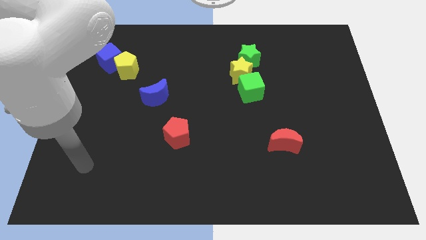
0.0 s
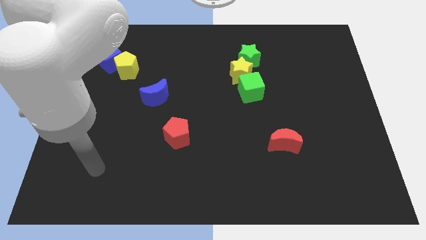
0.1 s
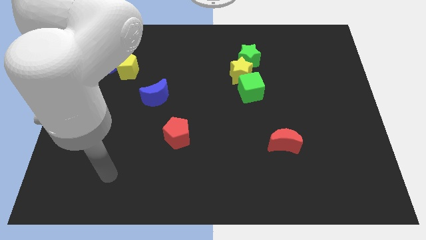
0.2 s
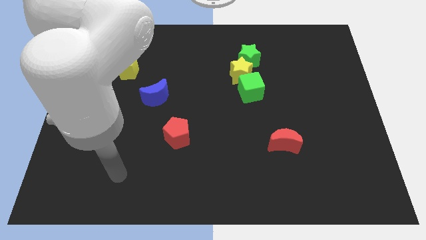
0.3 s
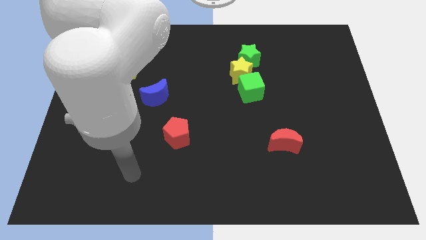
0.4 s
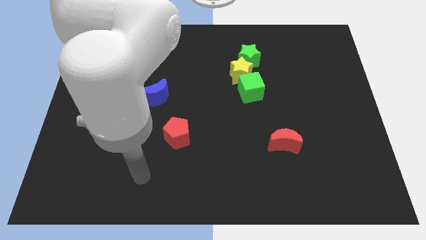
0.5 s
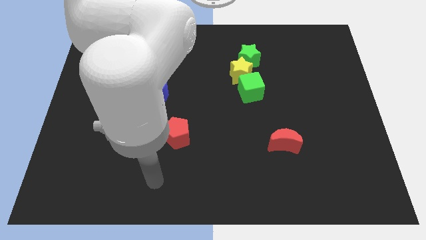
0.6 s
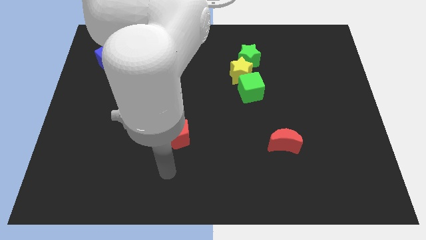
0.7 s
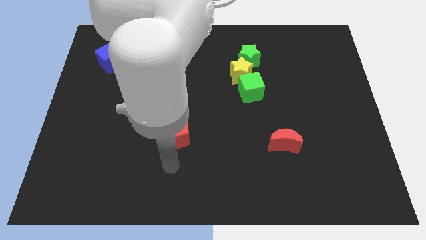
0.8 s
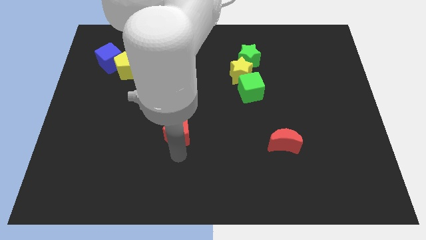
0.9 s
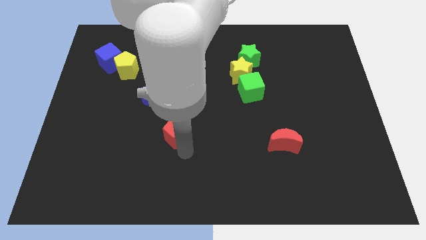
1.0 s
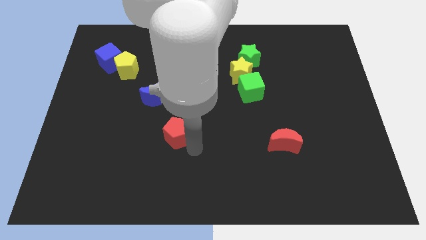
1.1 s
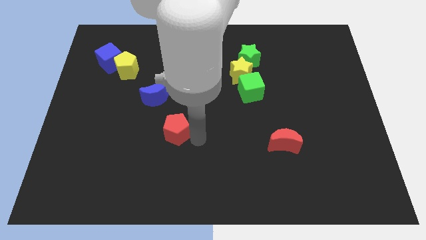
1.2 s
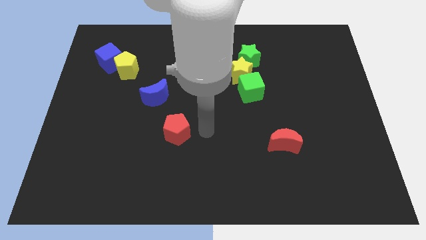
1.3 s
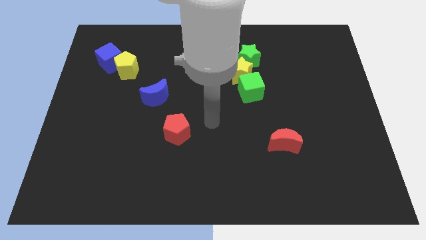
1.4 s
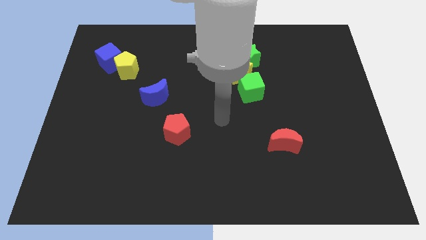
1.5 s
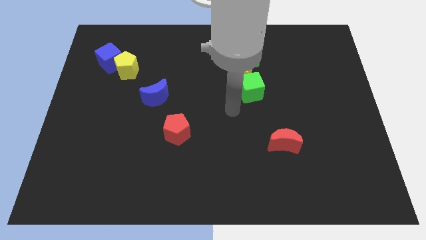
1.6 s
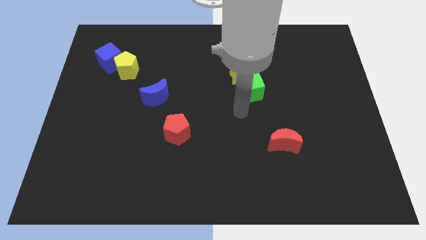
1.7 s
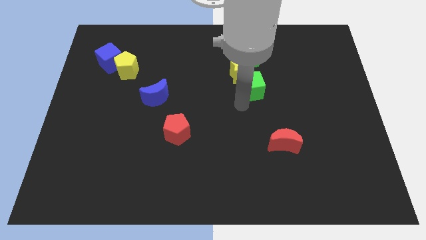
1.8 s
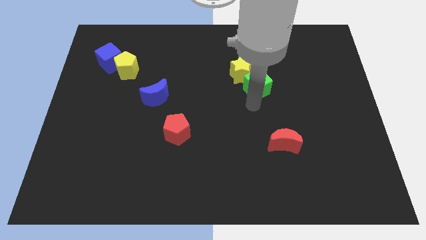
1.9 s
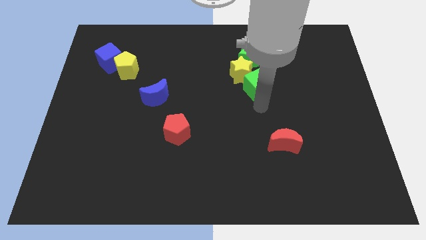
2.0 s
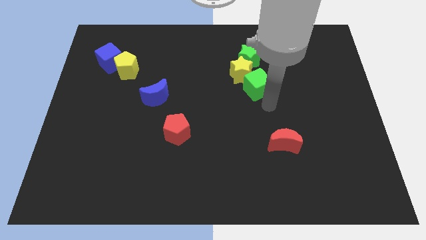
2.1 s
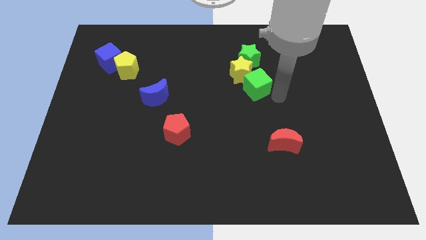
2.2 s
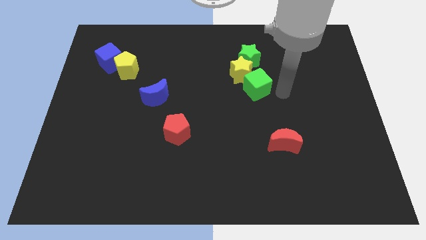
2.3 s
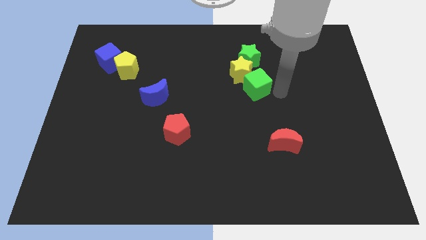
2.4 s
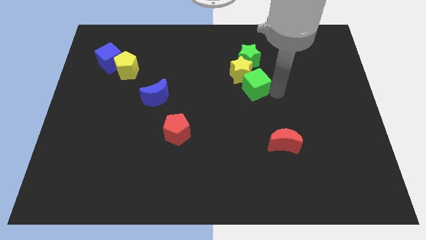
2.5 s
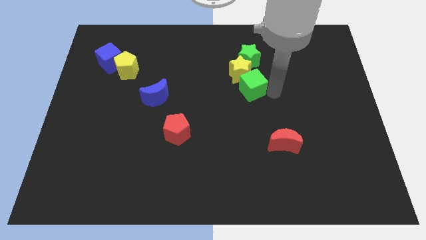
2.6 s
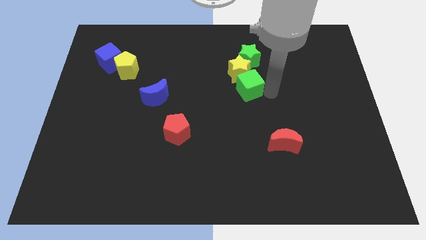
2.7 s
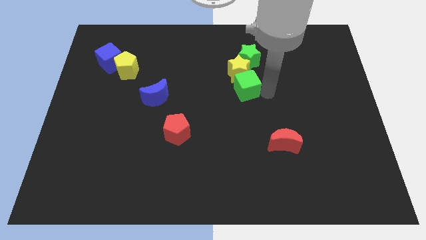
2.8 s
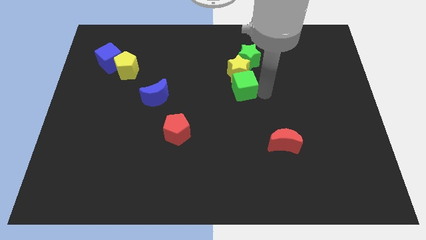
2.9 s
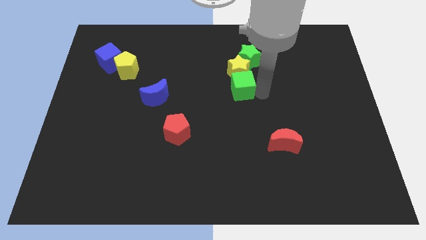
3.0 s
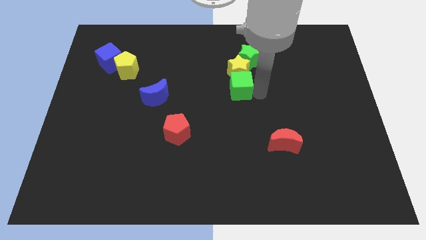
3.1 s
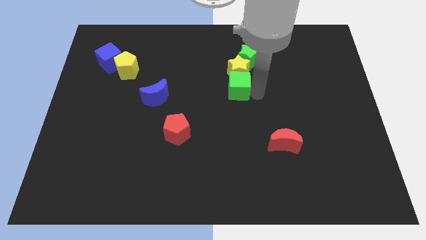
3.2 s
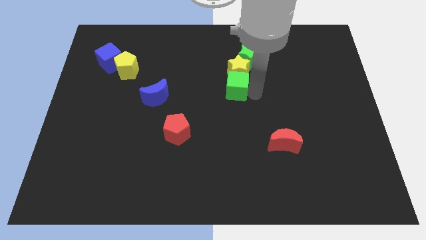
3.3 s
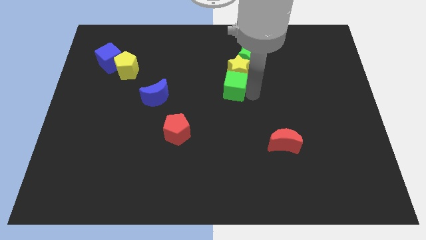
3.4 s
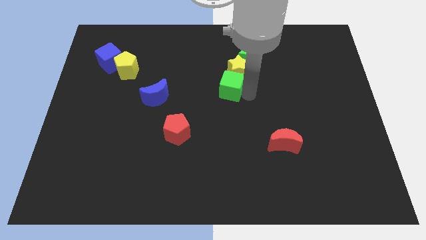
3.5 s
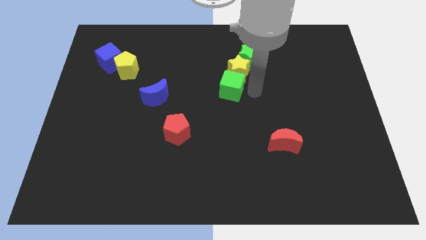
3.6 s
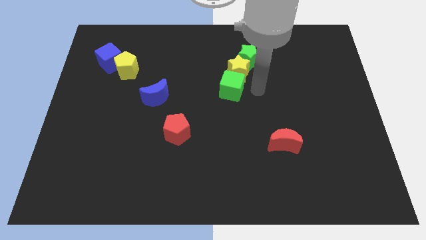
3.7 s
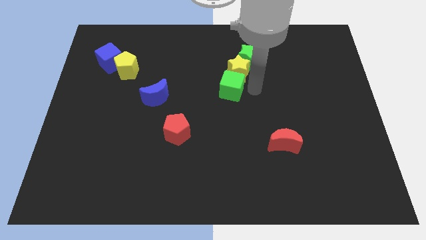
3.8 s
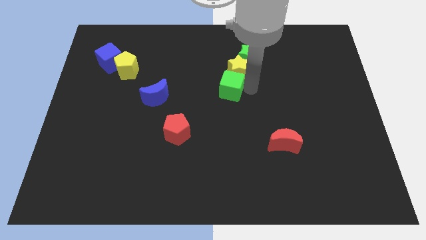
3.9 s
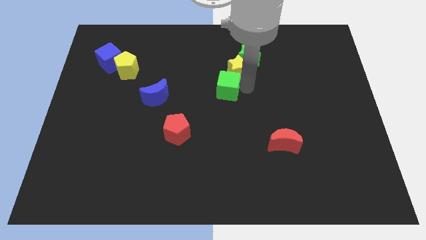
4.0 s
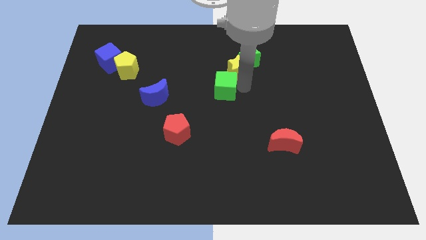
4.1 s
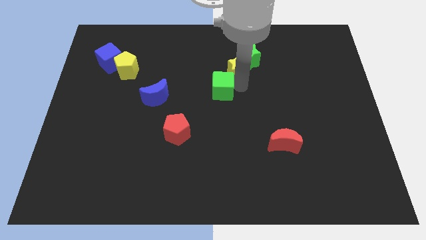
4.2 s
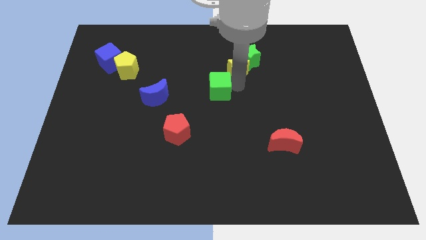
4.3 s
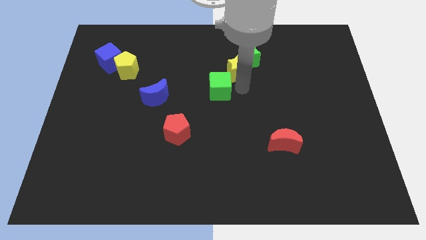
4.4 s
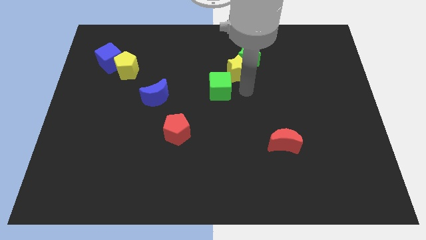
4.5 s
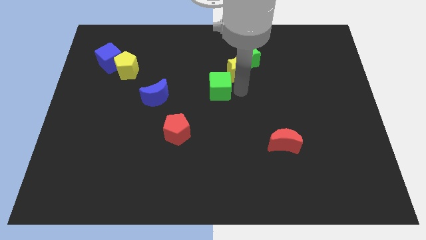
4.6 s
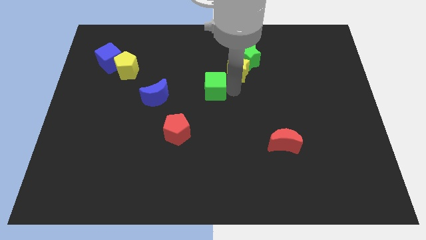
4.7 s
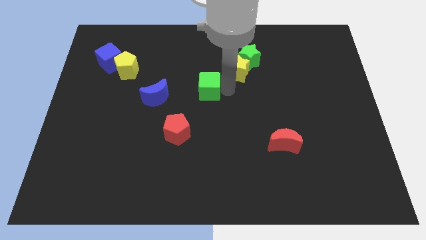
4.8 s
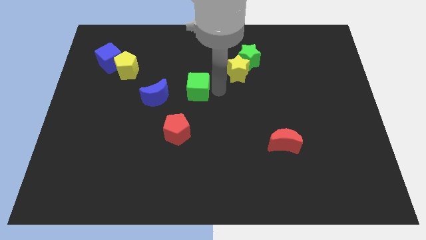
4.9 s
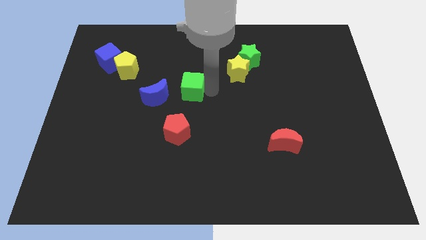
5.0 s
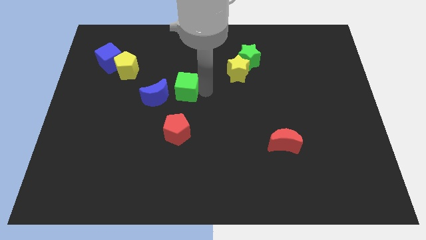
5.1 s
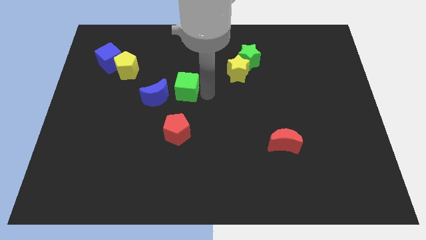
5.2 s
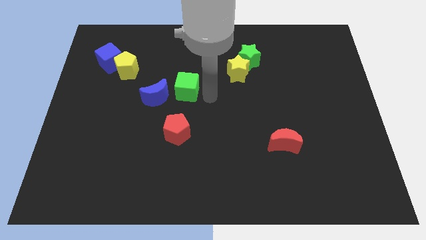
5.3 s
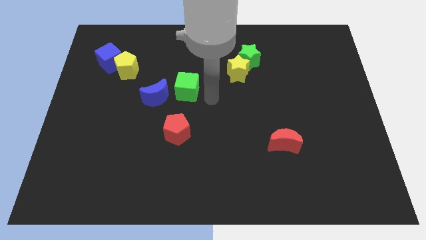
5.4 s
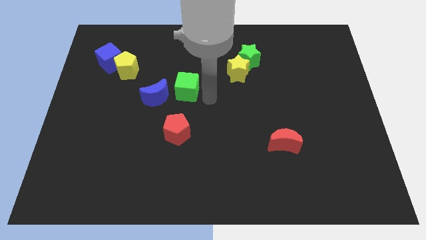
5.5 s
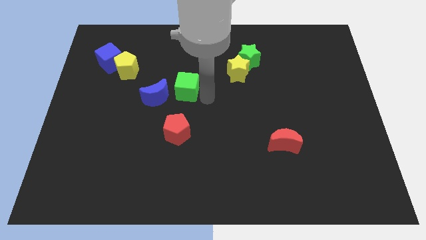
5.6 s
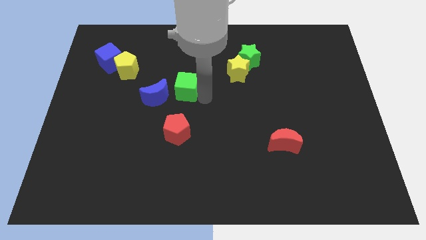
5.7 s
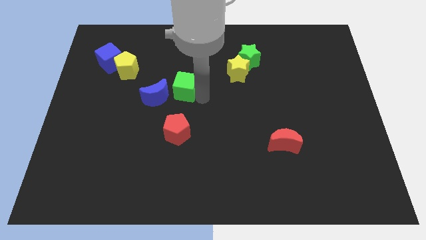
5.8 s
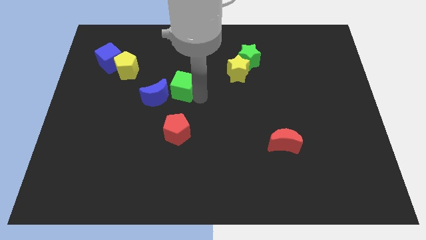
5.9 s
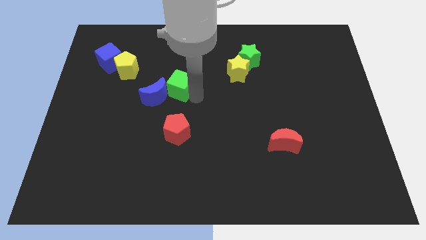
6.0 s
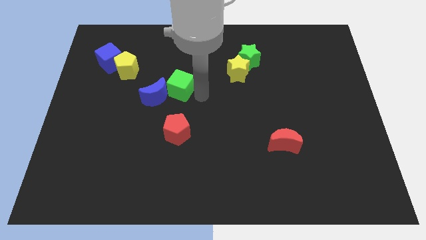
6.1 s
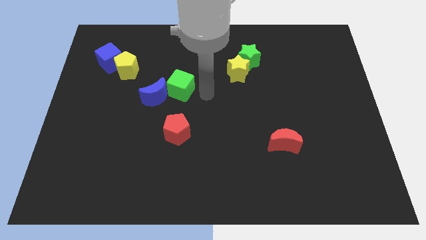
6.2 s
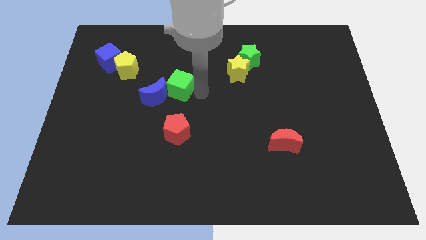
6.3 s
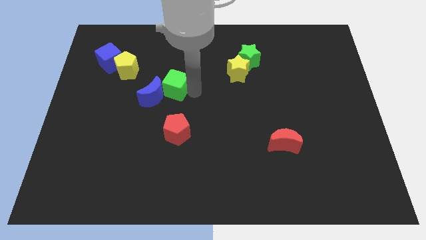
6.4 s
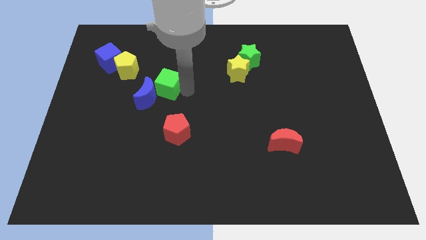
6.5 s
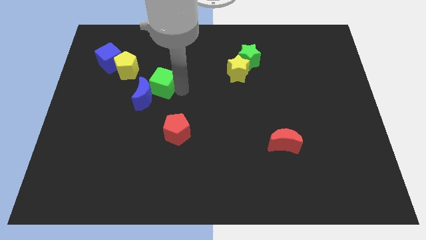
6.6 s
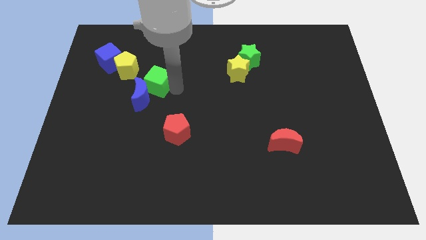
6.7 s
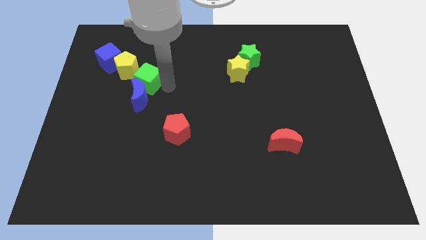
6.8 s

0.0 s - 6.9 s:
move the green cube to the top left of the blue moon

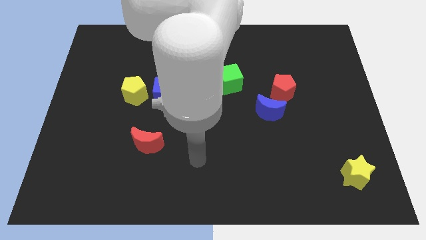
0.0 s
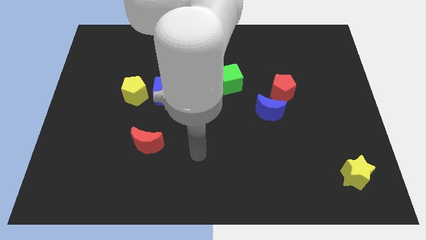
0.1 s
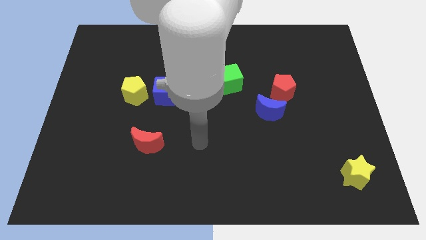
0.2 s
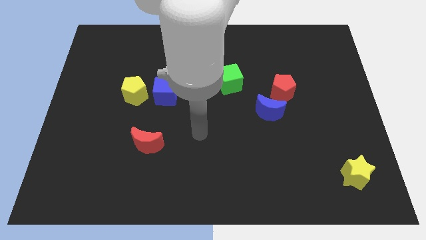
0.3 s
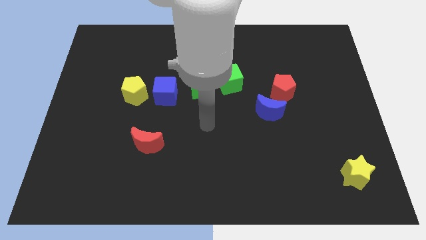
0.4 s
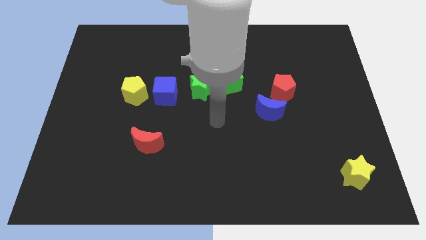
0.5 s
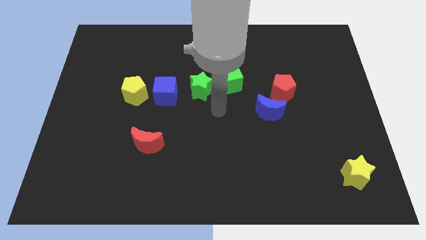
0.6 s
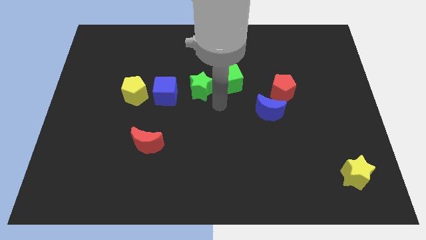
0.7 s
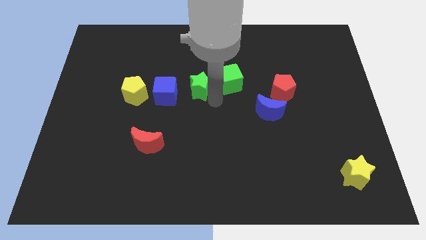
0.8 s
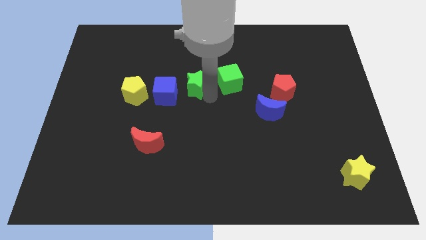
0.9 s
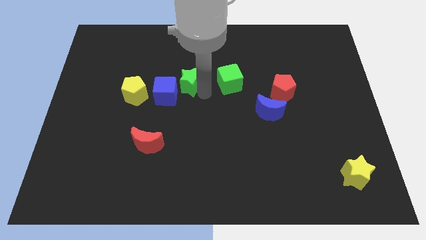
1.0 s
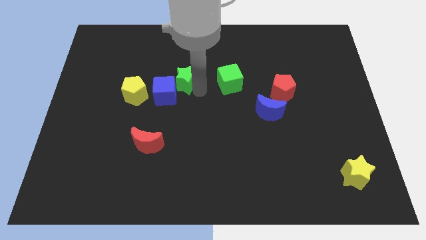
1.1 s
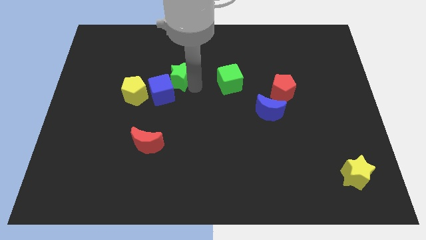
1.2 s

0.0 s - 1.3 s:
slide the green star to the top right of the yellow pentagon

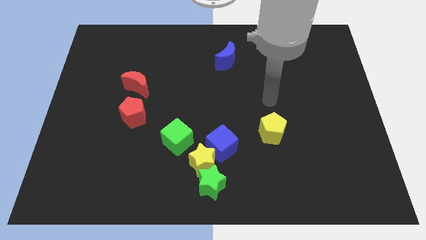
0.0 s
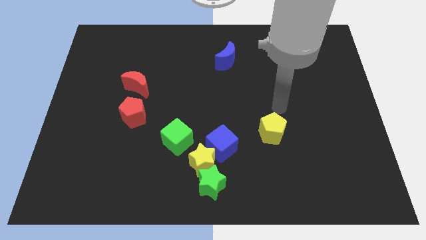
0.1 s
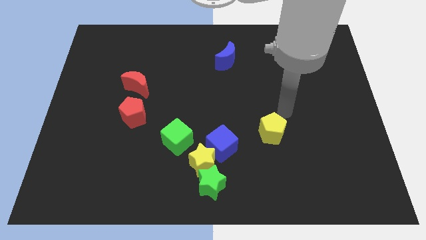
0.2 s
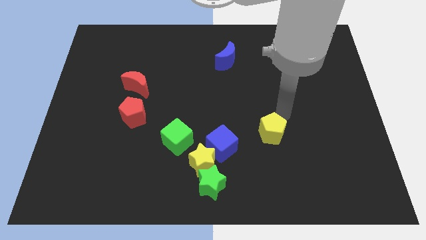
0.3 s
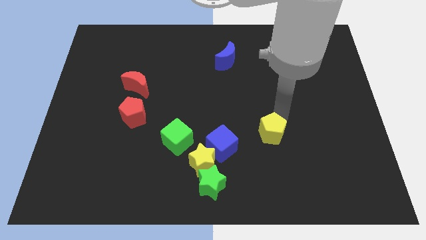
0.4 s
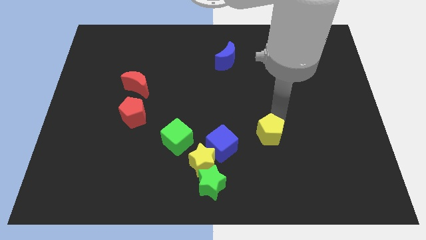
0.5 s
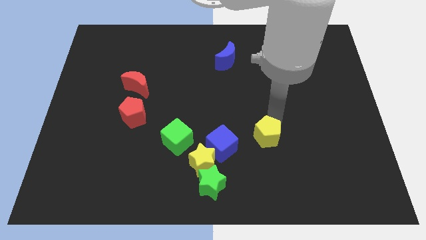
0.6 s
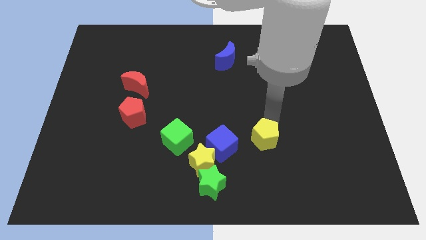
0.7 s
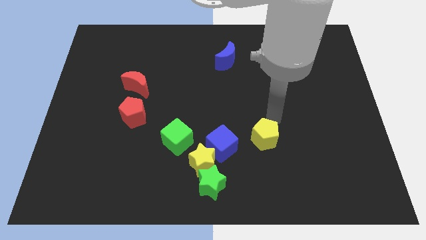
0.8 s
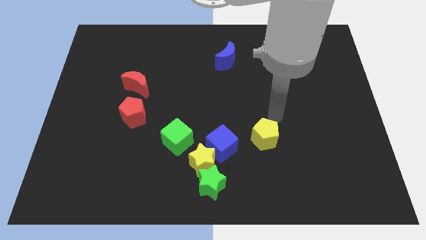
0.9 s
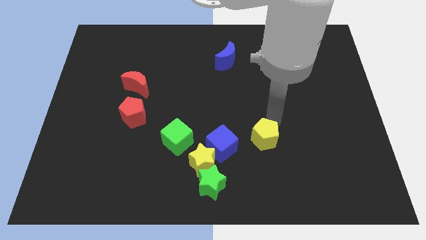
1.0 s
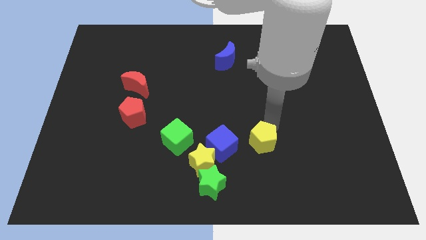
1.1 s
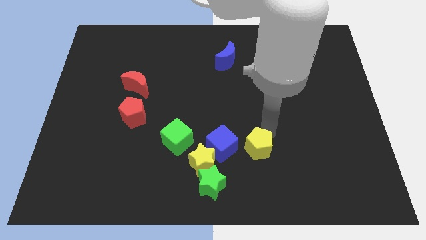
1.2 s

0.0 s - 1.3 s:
move the yellow pentagon right of the yellow star
